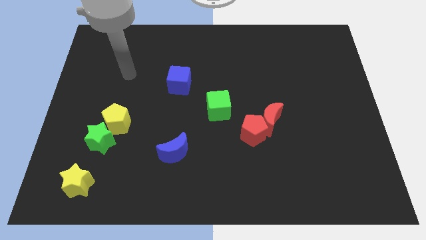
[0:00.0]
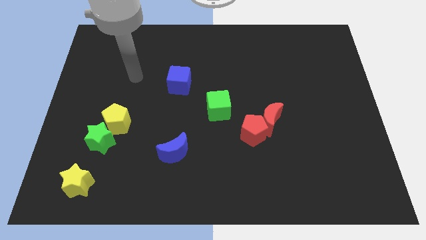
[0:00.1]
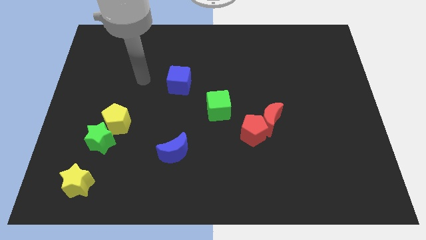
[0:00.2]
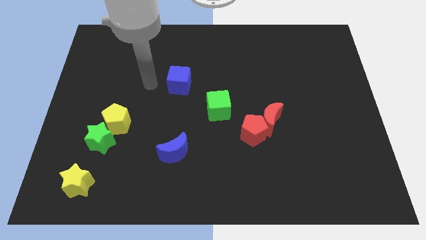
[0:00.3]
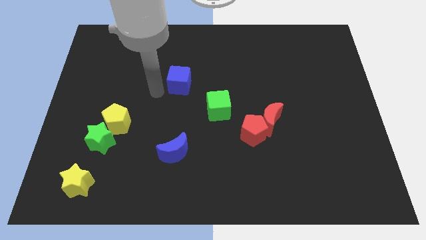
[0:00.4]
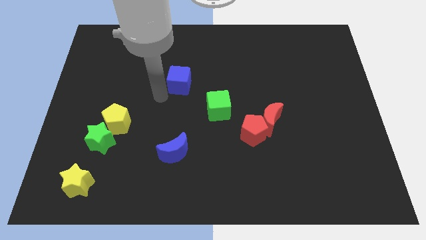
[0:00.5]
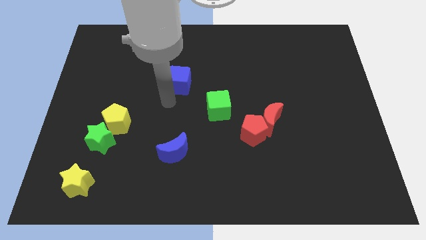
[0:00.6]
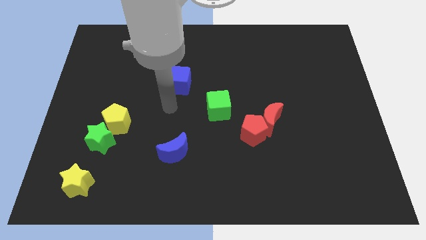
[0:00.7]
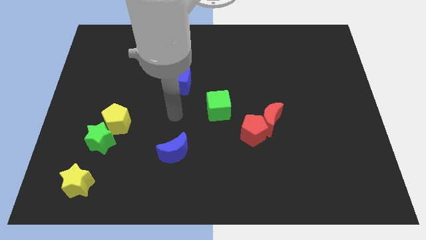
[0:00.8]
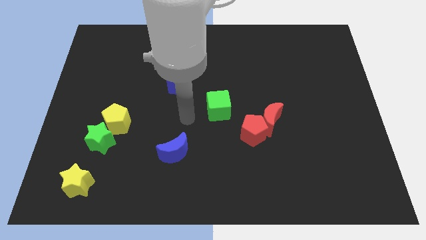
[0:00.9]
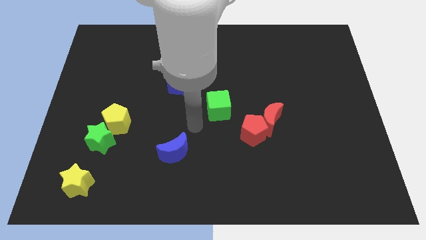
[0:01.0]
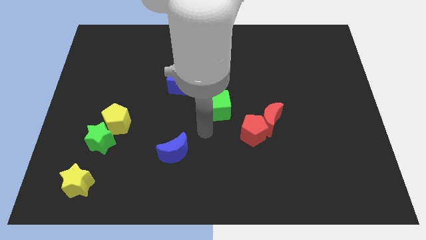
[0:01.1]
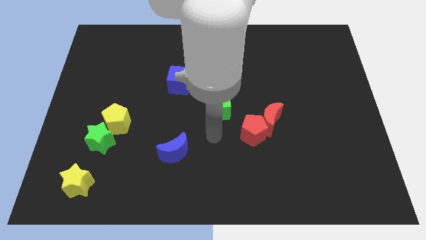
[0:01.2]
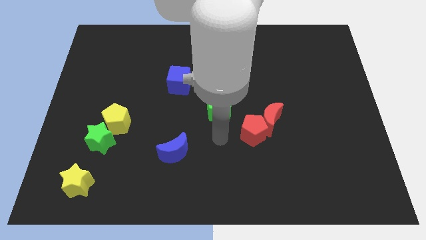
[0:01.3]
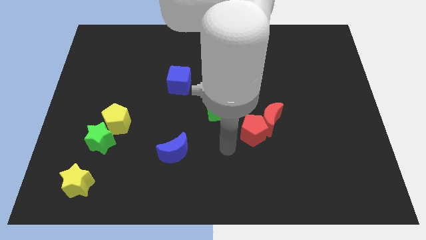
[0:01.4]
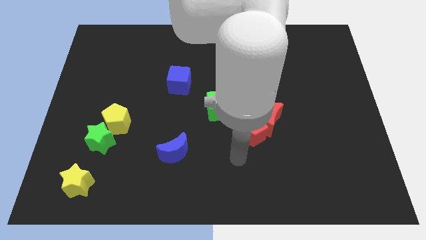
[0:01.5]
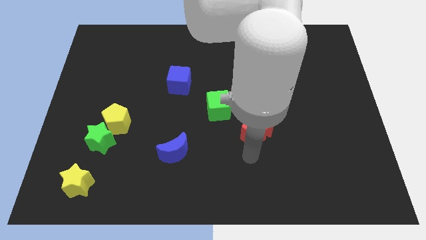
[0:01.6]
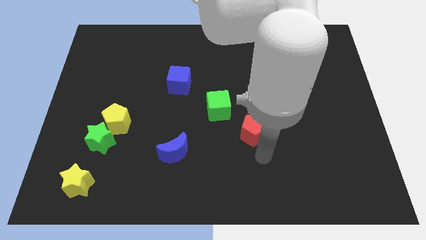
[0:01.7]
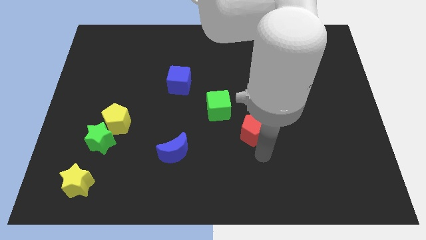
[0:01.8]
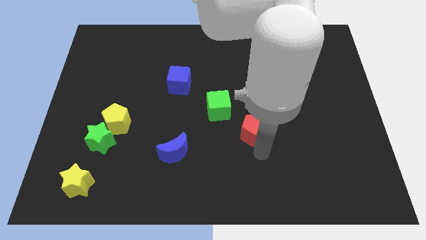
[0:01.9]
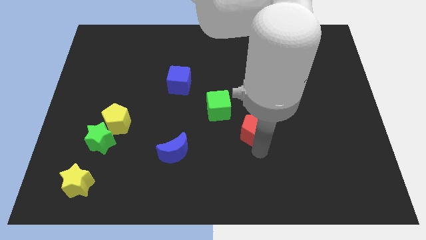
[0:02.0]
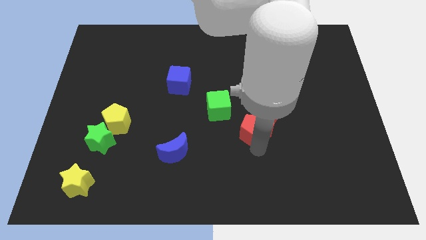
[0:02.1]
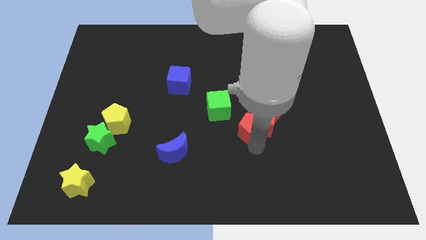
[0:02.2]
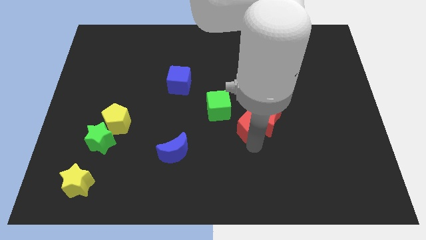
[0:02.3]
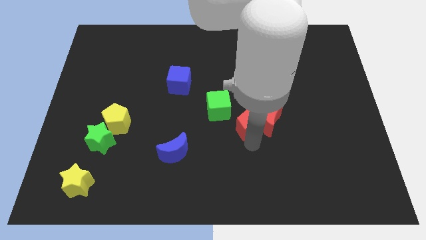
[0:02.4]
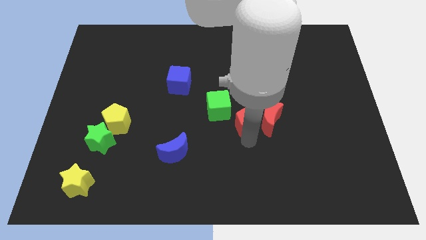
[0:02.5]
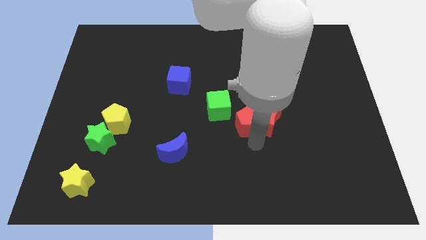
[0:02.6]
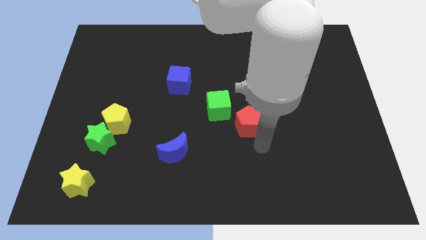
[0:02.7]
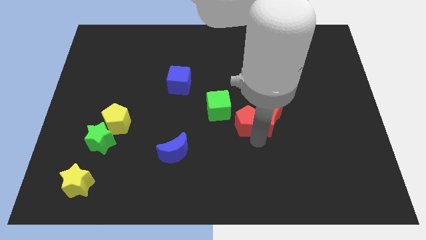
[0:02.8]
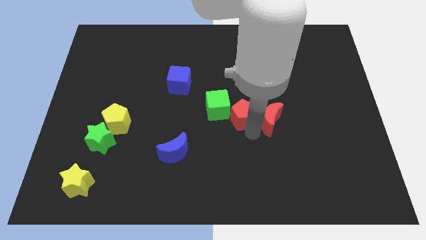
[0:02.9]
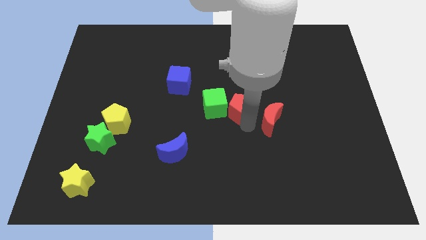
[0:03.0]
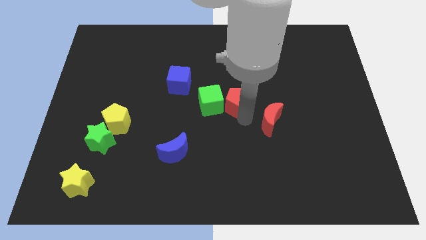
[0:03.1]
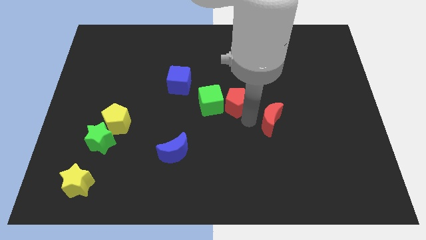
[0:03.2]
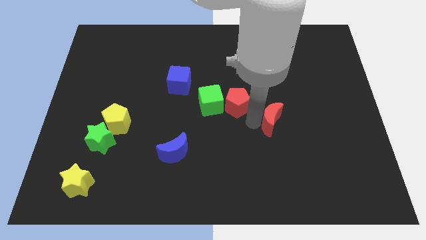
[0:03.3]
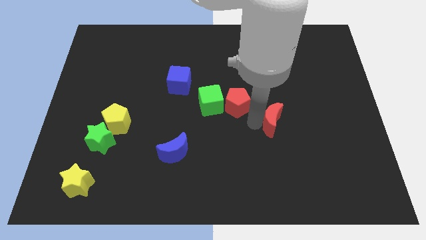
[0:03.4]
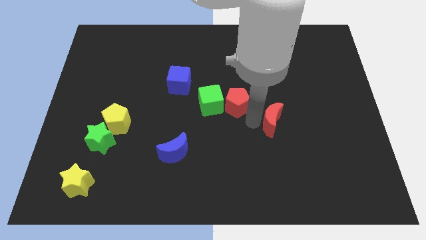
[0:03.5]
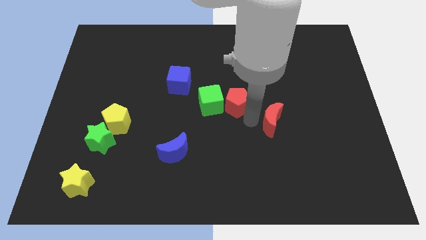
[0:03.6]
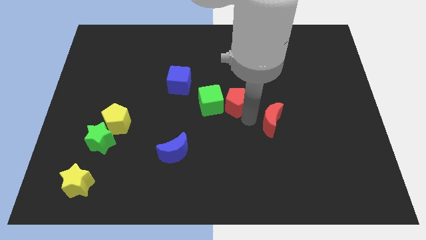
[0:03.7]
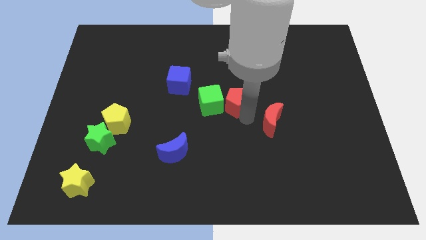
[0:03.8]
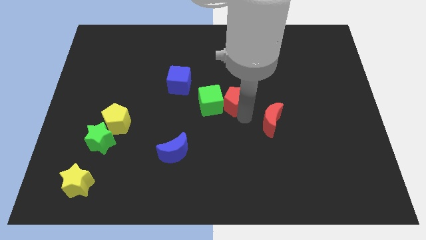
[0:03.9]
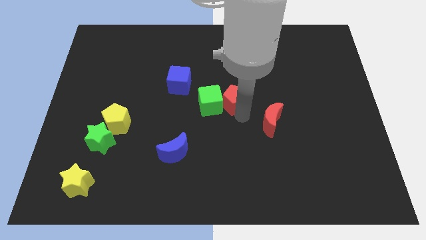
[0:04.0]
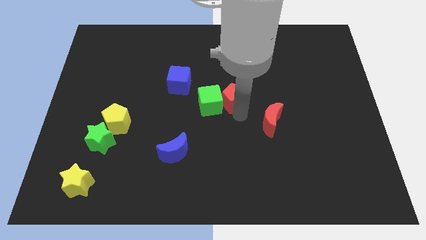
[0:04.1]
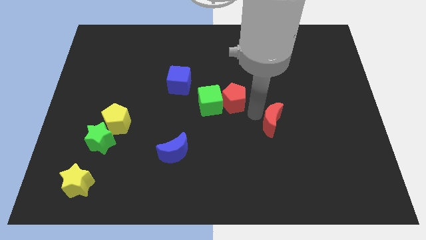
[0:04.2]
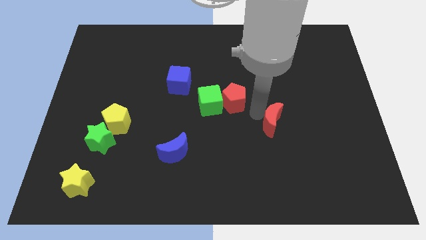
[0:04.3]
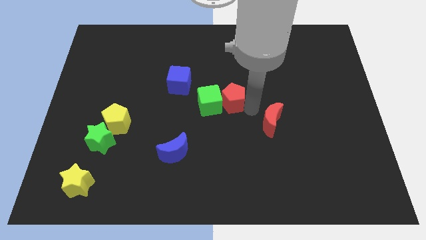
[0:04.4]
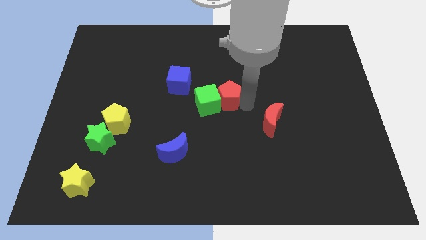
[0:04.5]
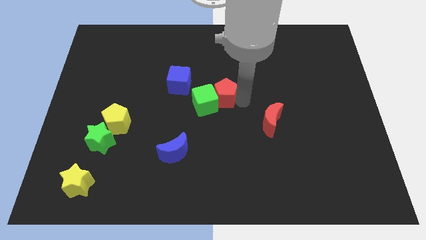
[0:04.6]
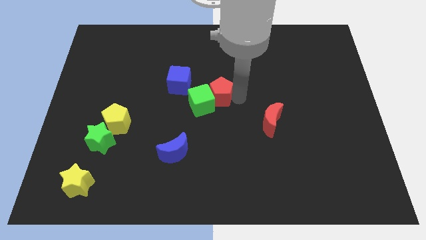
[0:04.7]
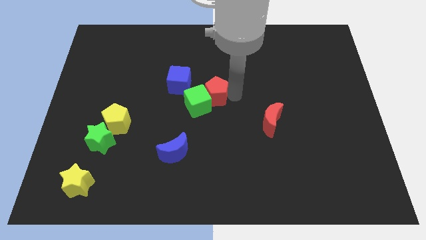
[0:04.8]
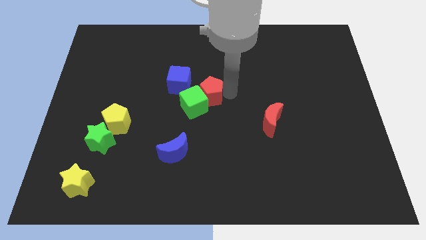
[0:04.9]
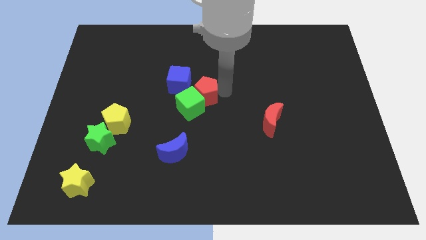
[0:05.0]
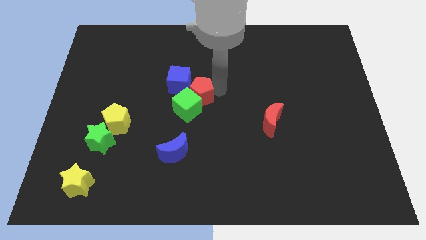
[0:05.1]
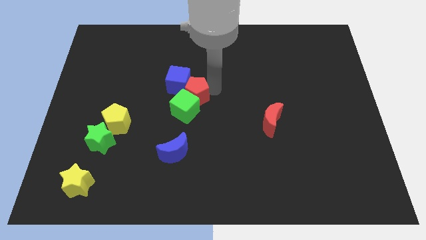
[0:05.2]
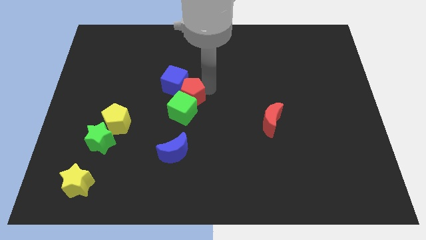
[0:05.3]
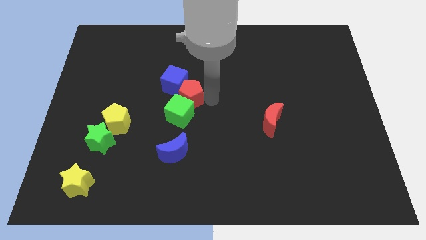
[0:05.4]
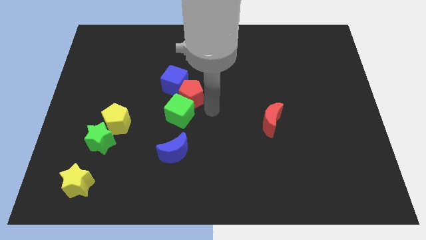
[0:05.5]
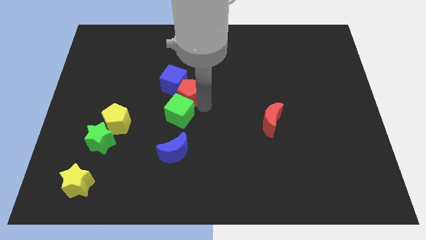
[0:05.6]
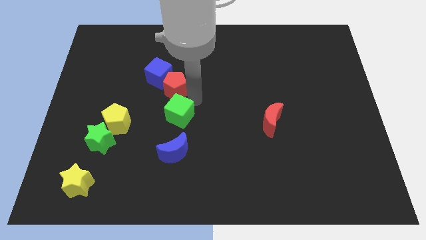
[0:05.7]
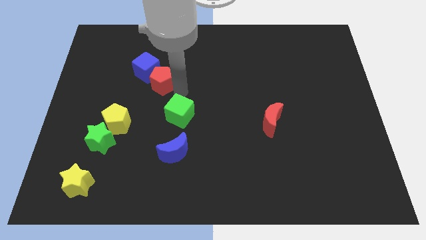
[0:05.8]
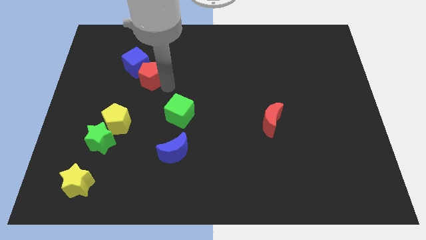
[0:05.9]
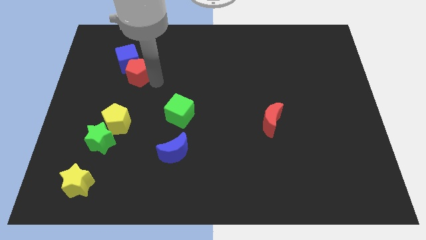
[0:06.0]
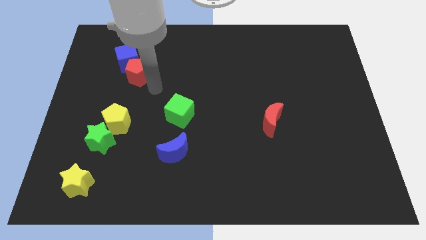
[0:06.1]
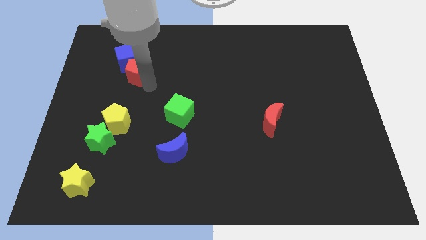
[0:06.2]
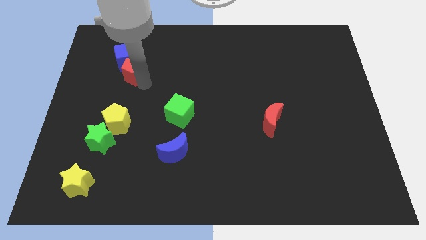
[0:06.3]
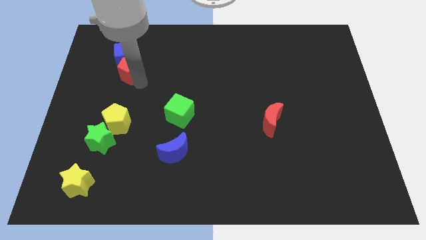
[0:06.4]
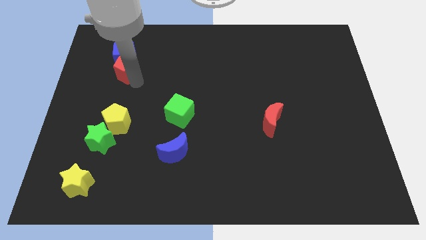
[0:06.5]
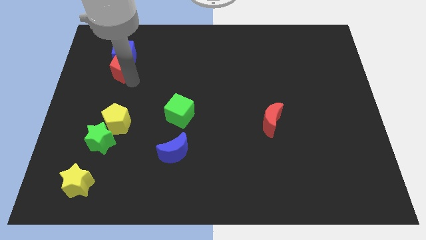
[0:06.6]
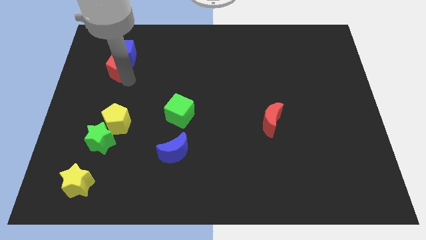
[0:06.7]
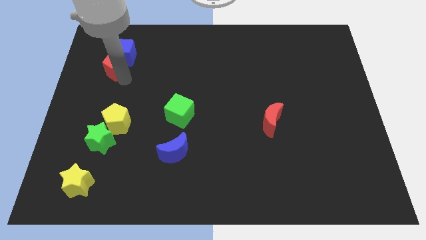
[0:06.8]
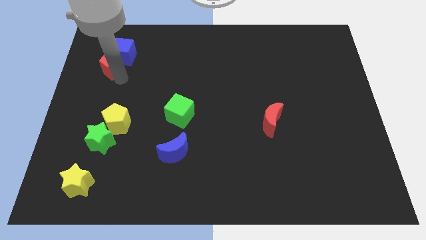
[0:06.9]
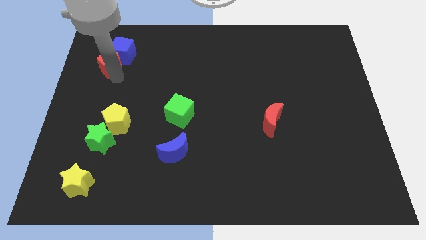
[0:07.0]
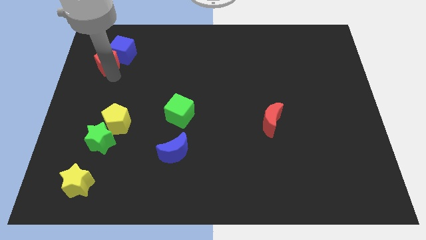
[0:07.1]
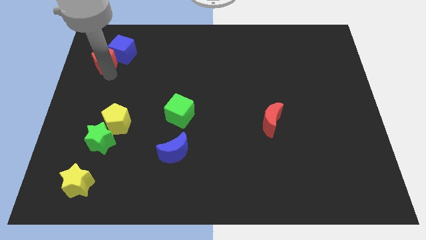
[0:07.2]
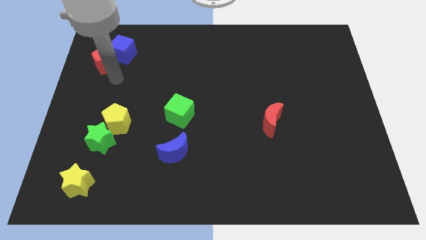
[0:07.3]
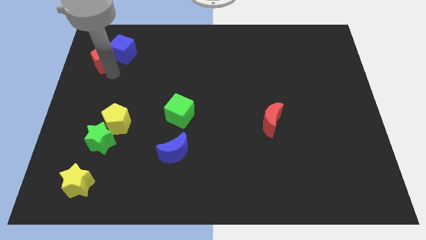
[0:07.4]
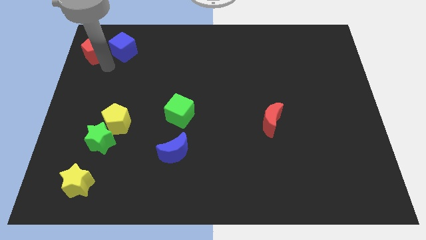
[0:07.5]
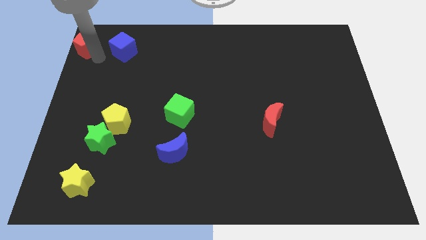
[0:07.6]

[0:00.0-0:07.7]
put the red pentagon to the top left of the board
